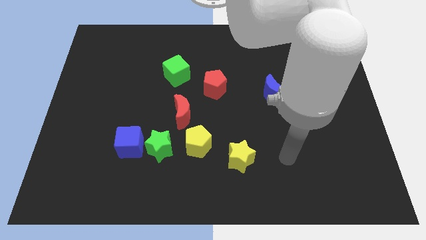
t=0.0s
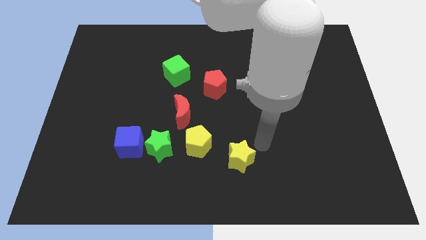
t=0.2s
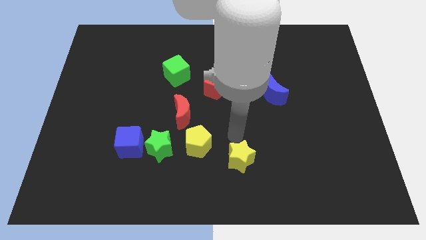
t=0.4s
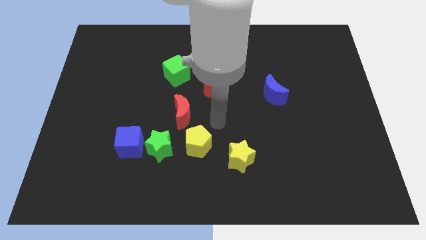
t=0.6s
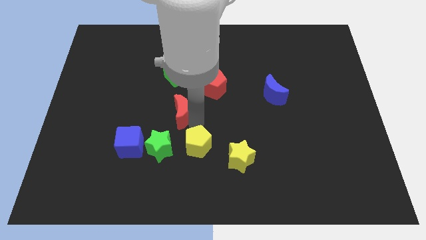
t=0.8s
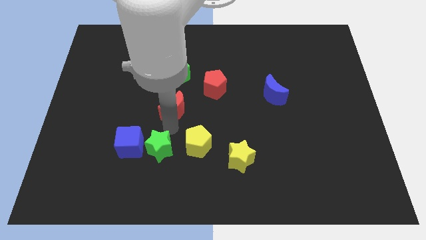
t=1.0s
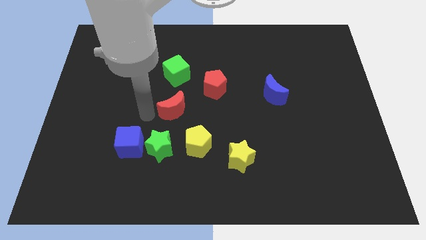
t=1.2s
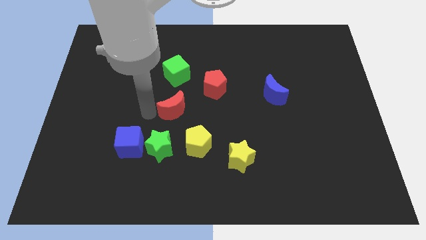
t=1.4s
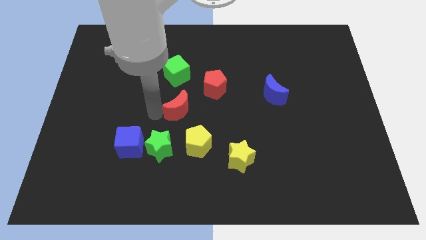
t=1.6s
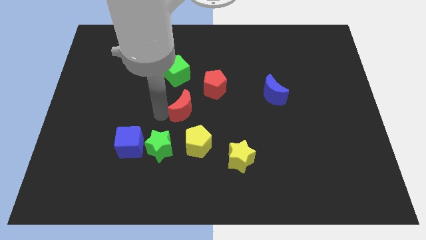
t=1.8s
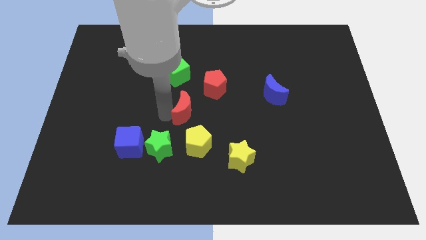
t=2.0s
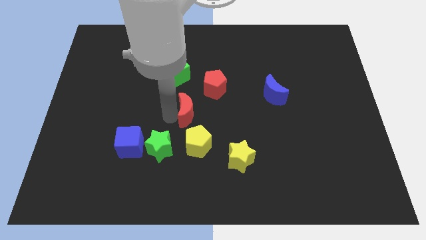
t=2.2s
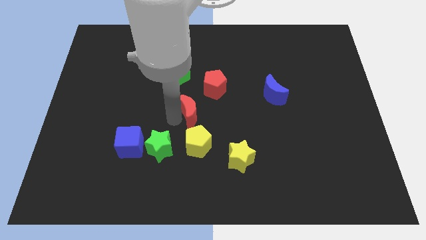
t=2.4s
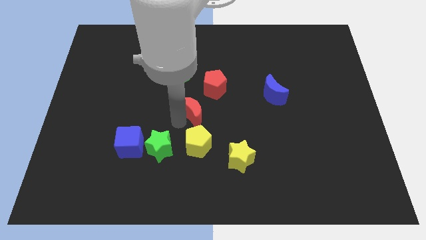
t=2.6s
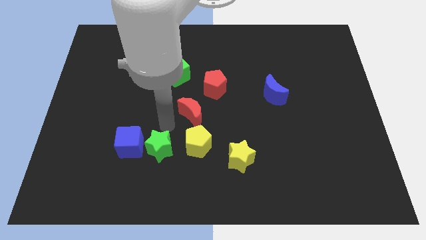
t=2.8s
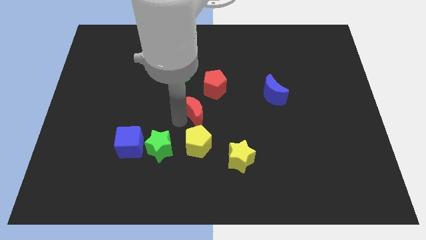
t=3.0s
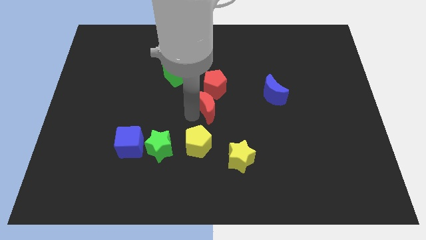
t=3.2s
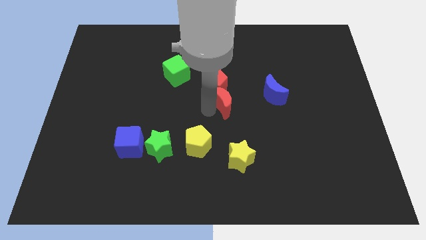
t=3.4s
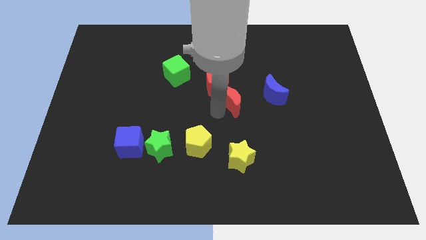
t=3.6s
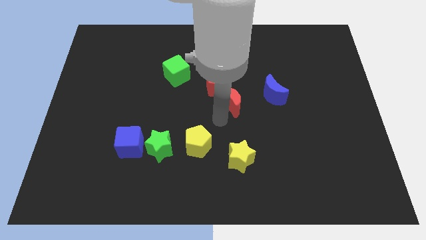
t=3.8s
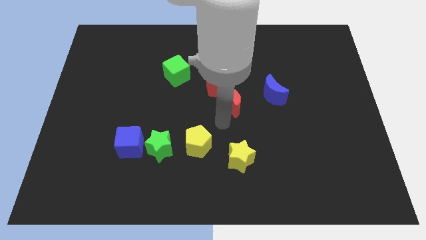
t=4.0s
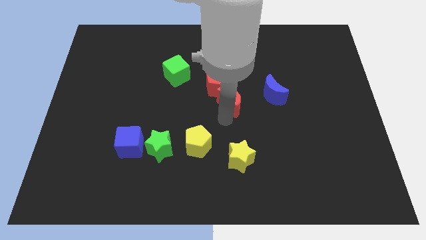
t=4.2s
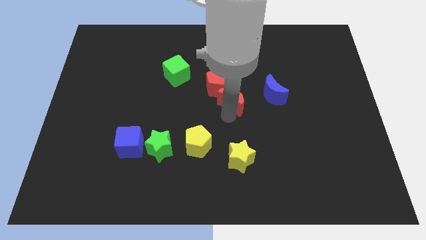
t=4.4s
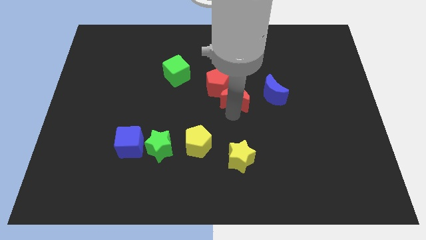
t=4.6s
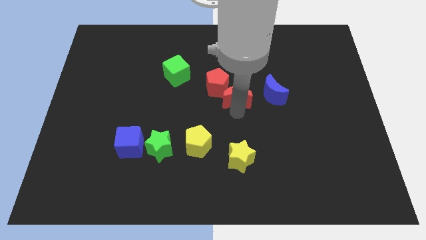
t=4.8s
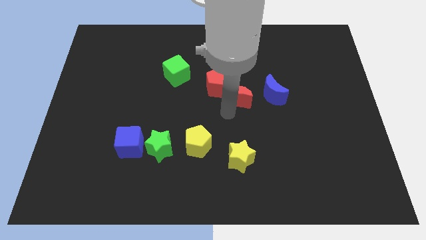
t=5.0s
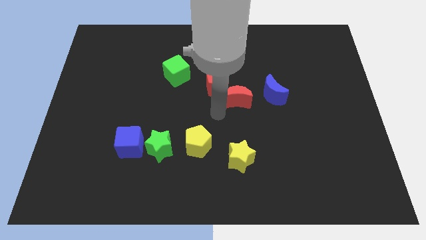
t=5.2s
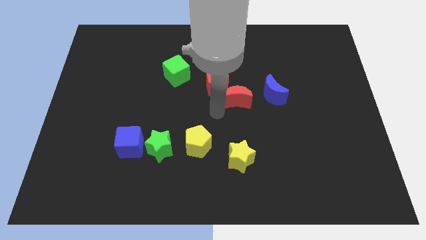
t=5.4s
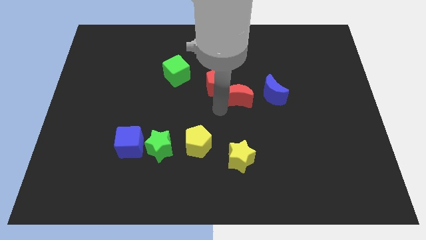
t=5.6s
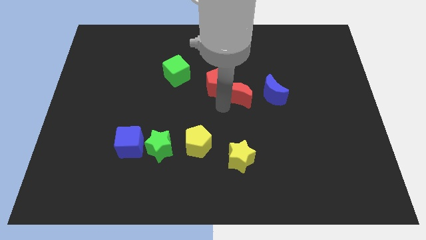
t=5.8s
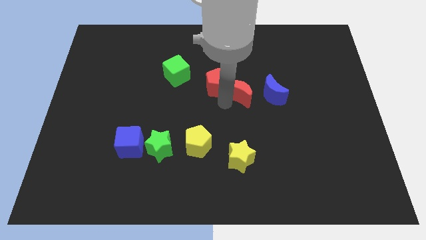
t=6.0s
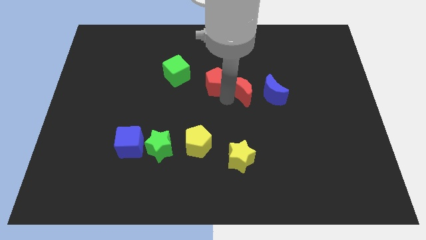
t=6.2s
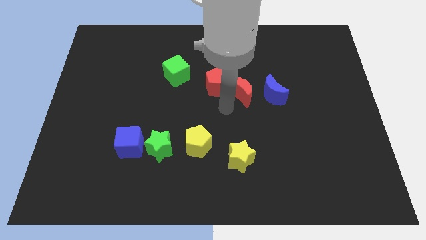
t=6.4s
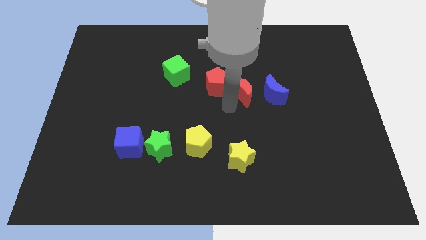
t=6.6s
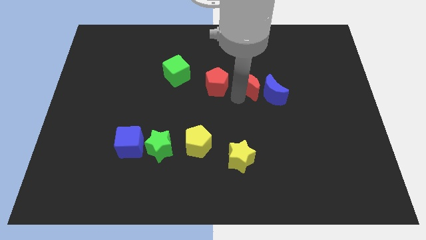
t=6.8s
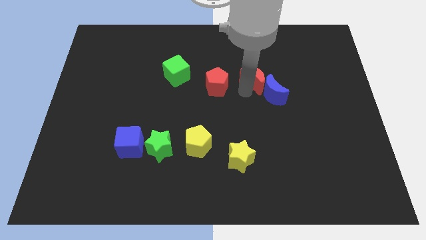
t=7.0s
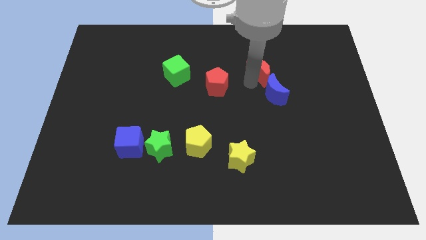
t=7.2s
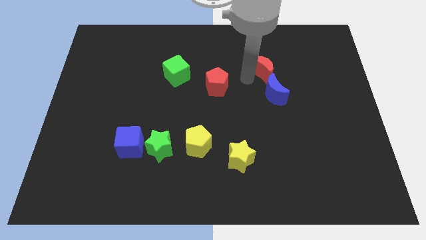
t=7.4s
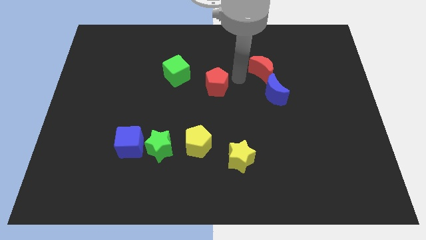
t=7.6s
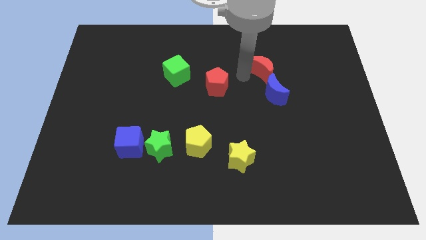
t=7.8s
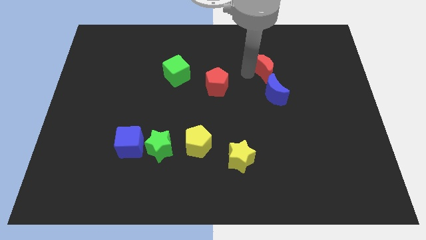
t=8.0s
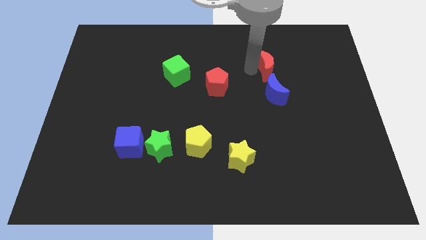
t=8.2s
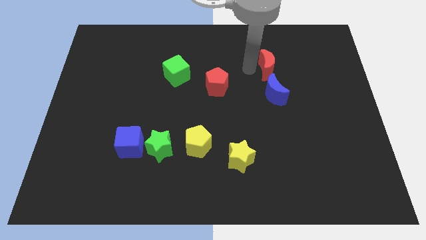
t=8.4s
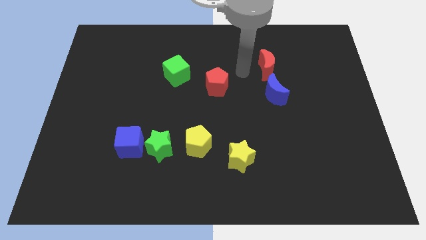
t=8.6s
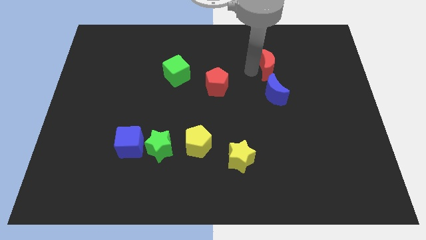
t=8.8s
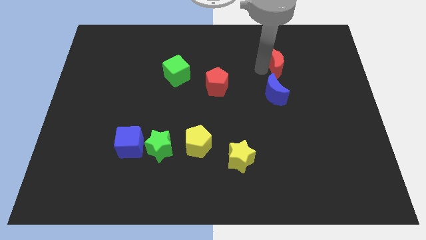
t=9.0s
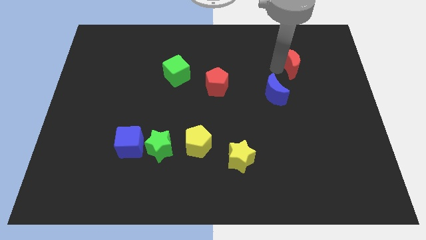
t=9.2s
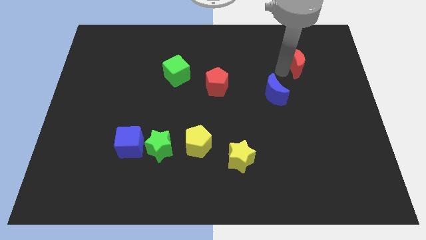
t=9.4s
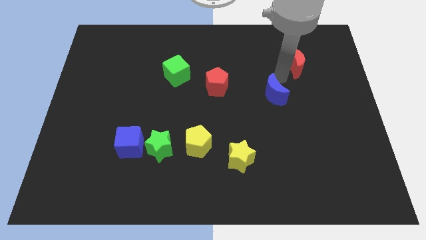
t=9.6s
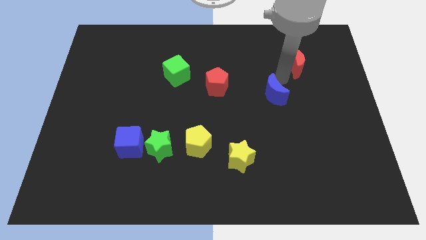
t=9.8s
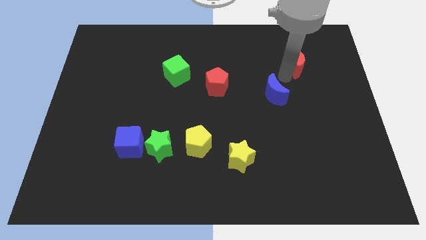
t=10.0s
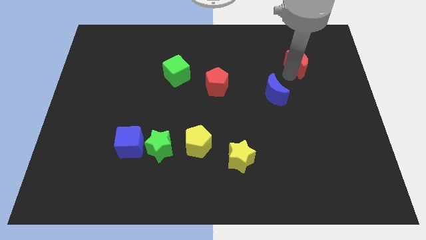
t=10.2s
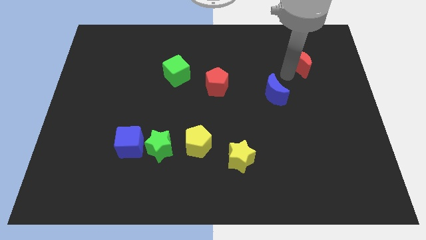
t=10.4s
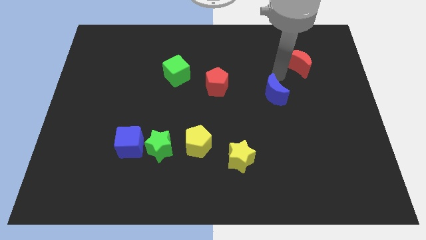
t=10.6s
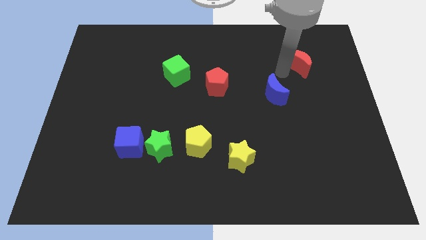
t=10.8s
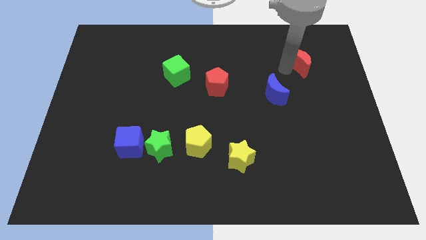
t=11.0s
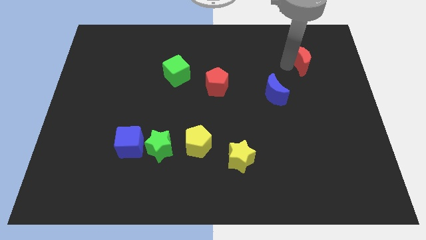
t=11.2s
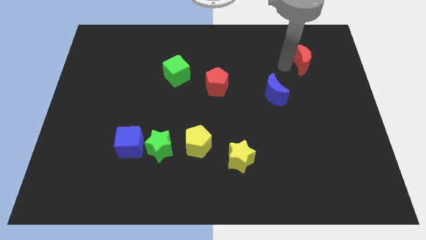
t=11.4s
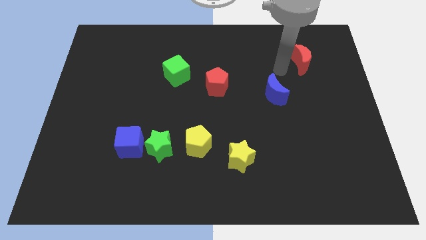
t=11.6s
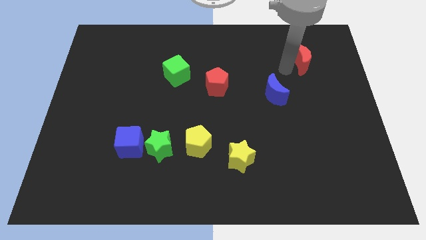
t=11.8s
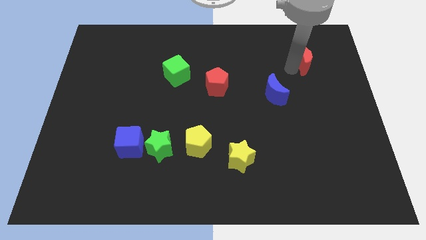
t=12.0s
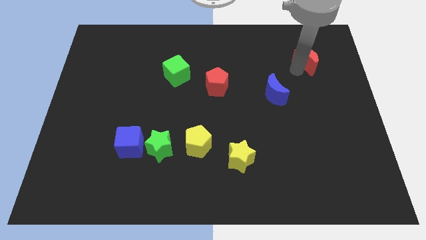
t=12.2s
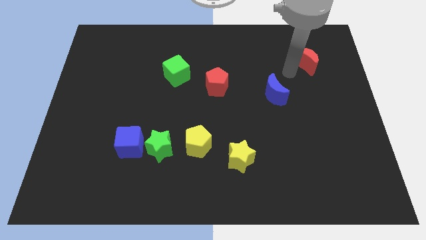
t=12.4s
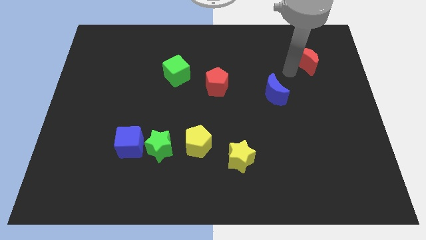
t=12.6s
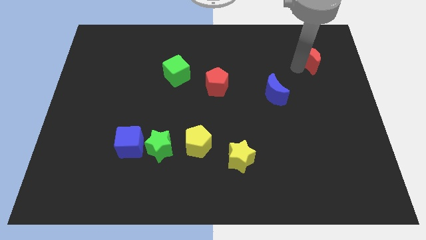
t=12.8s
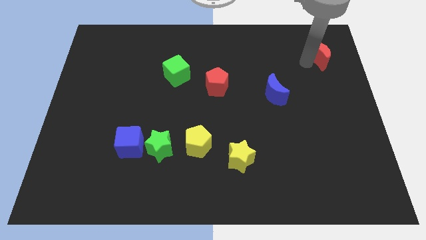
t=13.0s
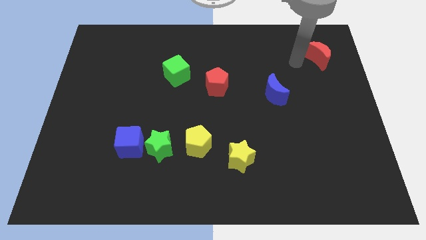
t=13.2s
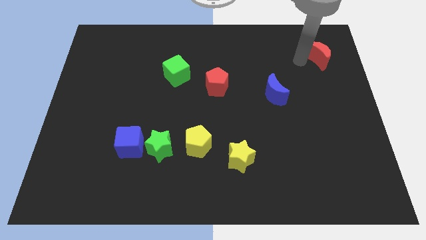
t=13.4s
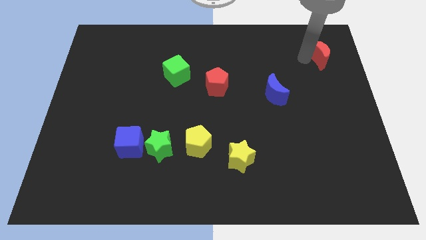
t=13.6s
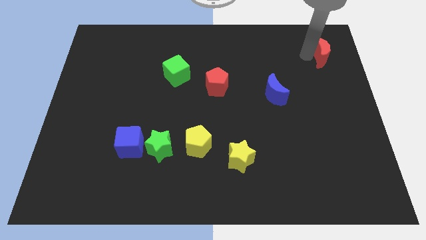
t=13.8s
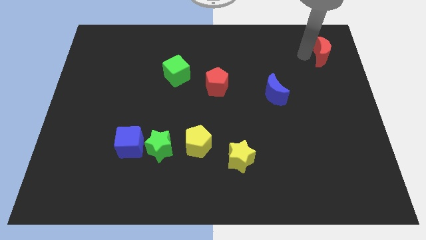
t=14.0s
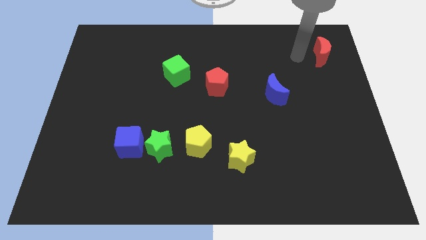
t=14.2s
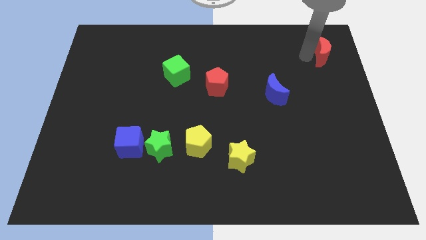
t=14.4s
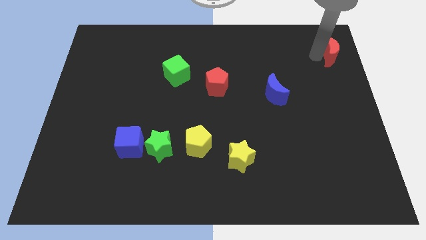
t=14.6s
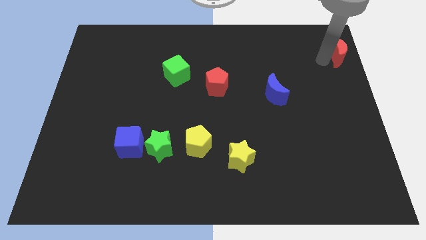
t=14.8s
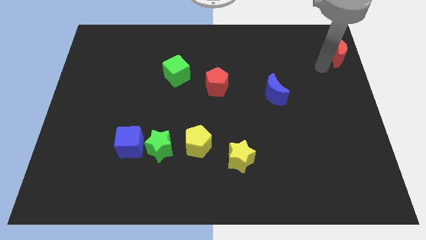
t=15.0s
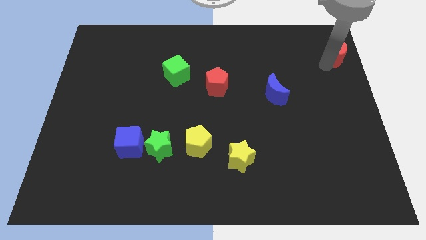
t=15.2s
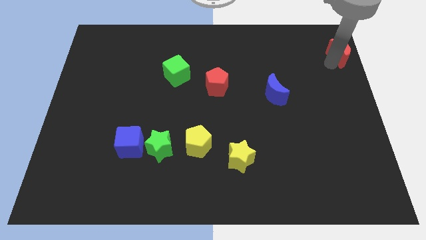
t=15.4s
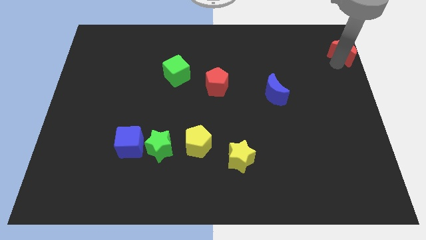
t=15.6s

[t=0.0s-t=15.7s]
slide the red moon to the upper right corner
